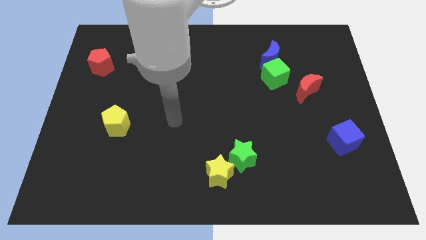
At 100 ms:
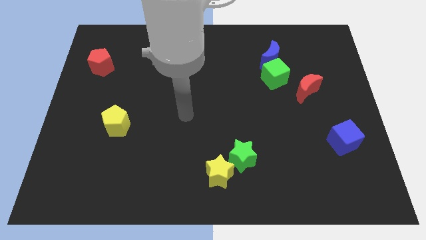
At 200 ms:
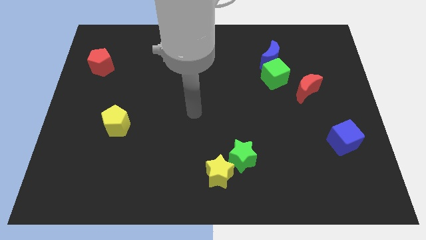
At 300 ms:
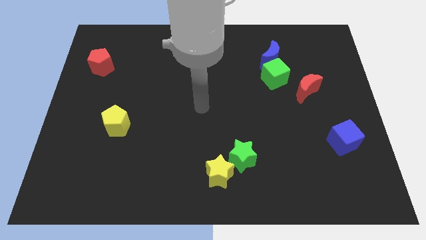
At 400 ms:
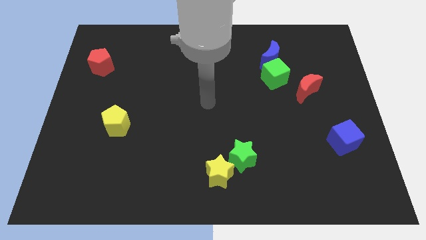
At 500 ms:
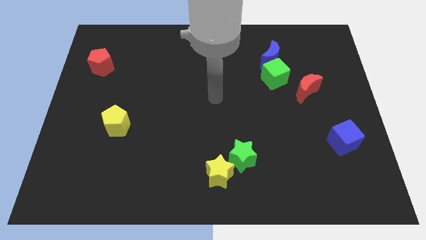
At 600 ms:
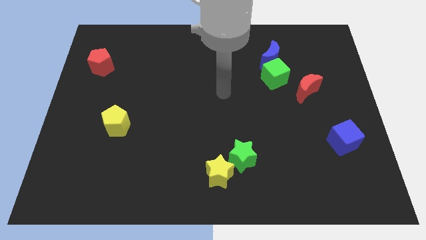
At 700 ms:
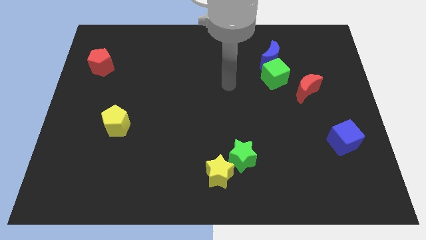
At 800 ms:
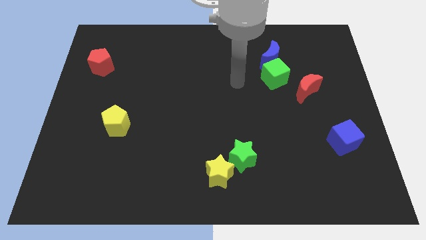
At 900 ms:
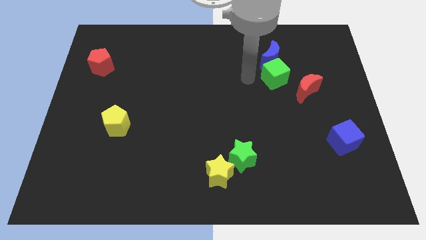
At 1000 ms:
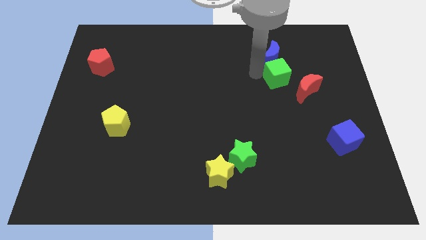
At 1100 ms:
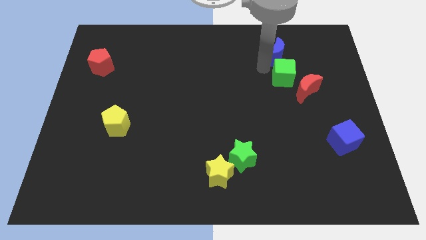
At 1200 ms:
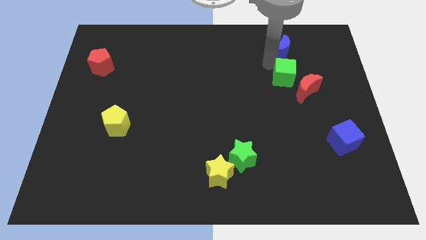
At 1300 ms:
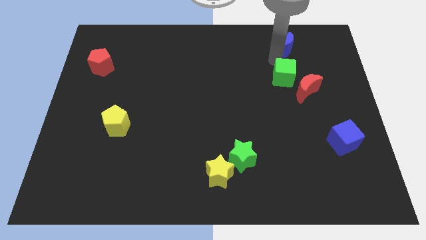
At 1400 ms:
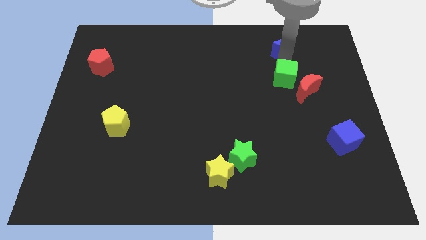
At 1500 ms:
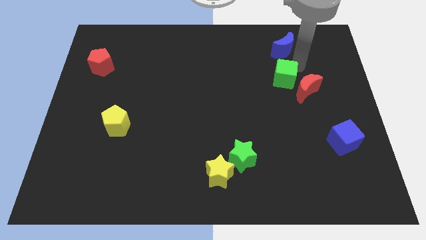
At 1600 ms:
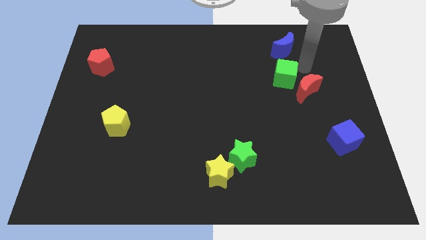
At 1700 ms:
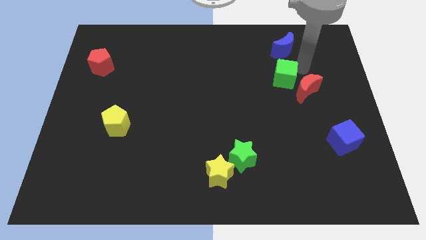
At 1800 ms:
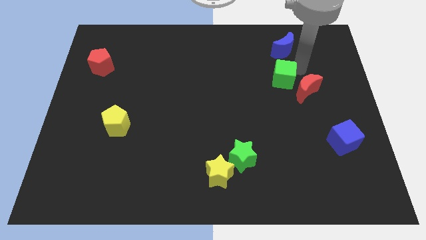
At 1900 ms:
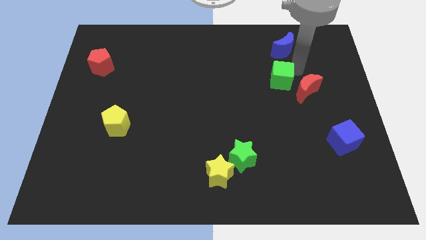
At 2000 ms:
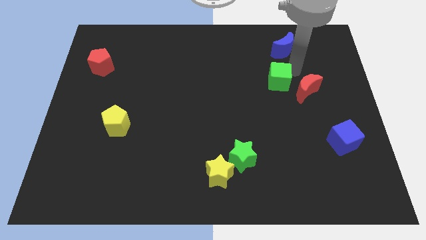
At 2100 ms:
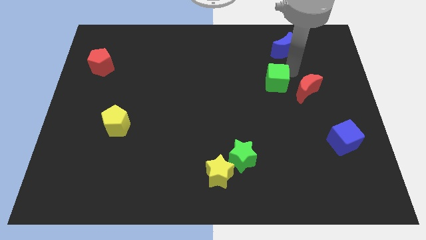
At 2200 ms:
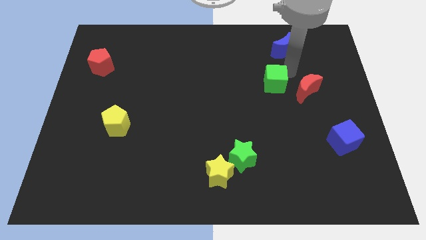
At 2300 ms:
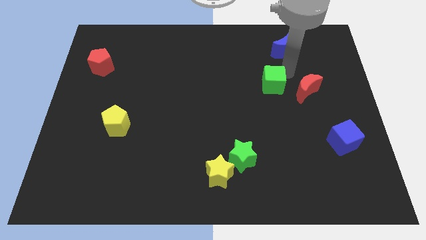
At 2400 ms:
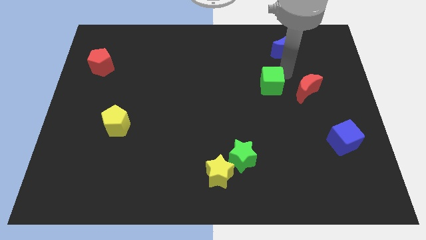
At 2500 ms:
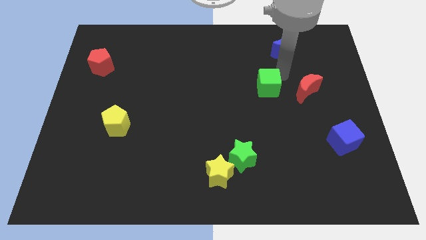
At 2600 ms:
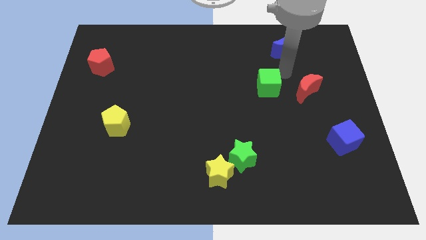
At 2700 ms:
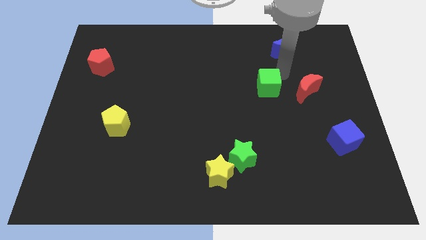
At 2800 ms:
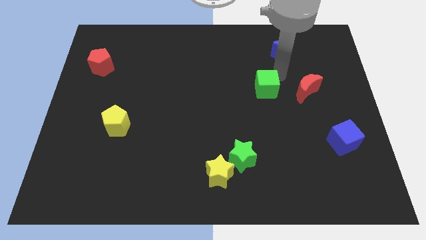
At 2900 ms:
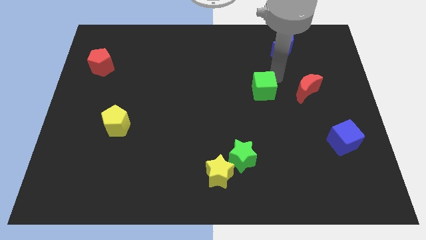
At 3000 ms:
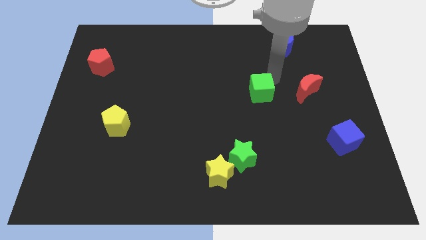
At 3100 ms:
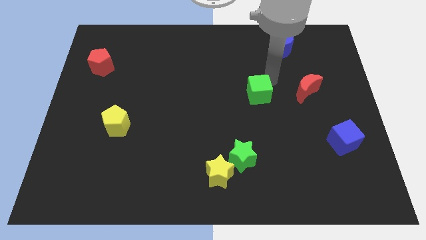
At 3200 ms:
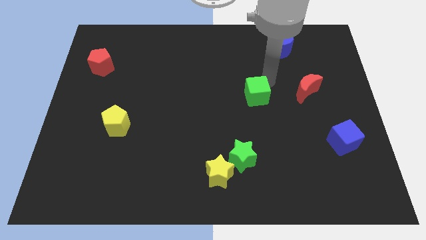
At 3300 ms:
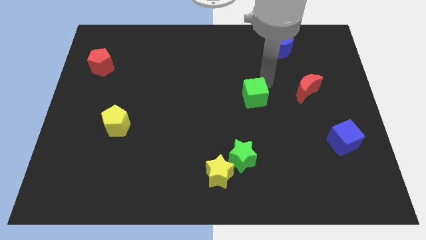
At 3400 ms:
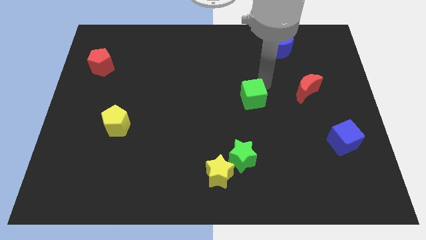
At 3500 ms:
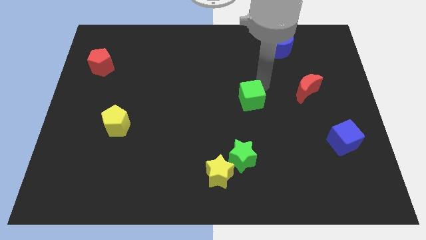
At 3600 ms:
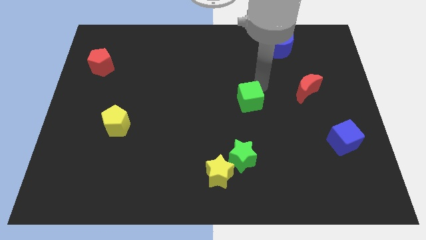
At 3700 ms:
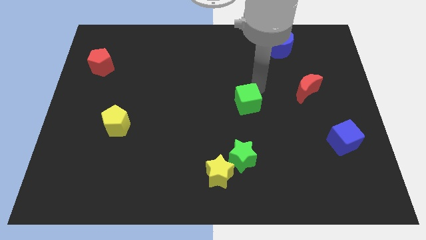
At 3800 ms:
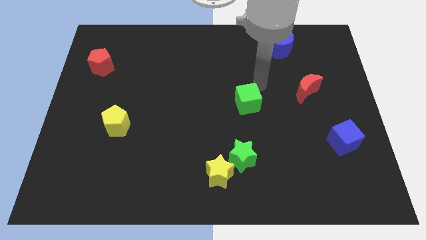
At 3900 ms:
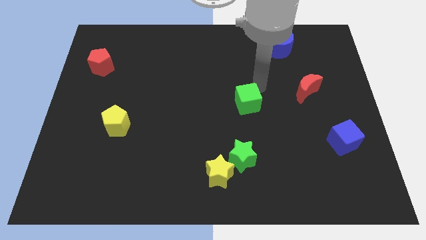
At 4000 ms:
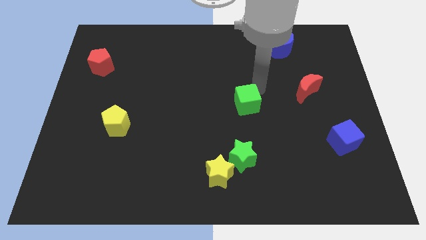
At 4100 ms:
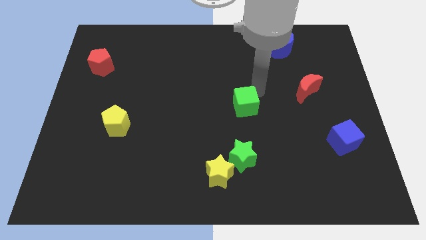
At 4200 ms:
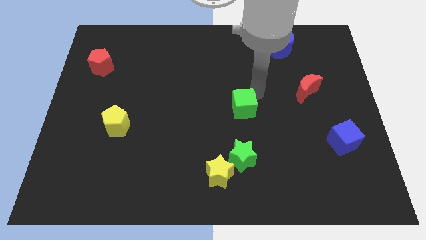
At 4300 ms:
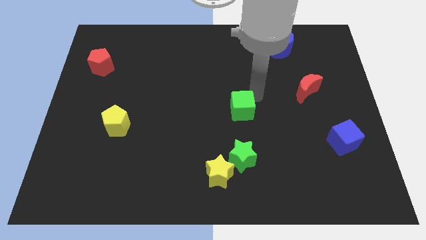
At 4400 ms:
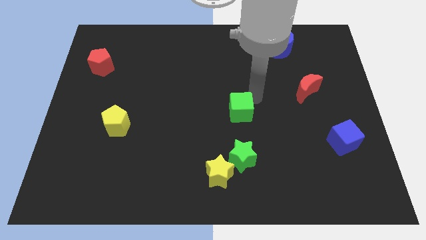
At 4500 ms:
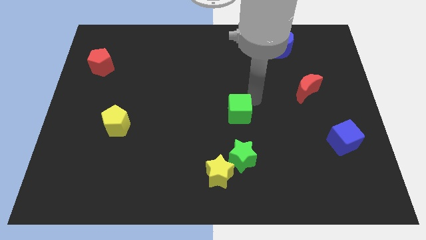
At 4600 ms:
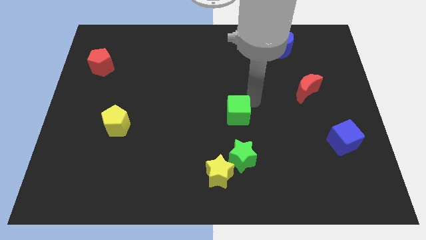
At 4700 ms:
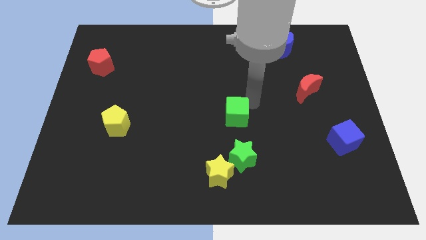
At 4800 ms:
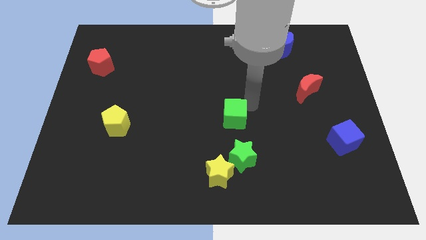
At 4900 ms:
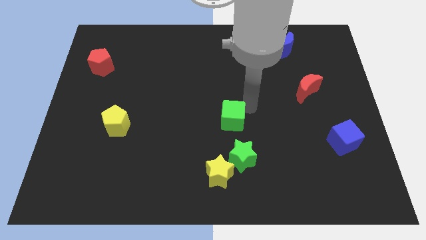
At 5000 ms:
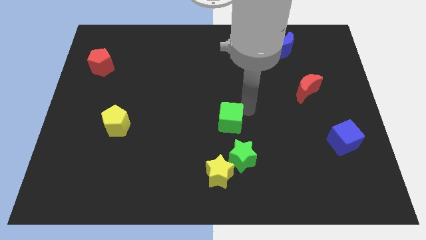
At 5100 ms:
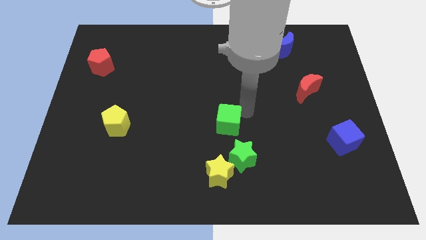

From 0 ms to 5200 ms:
move the green cube to the top left side of the green star

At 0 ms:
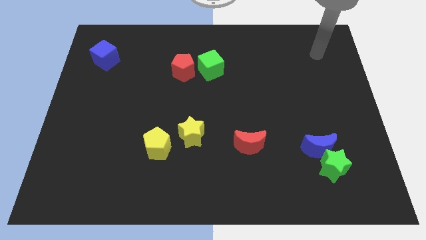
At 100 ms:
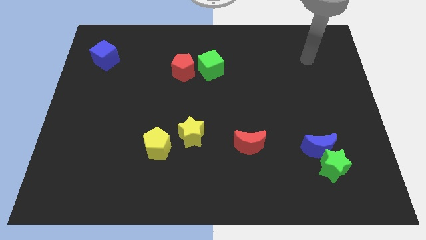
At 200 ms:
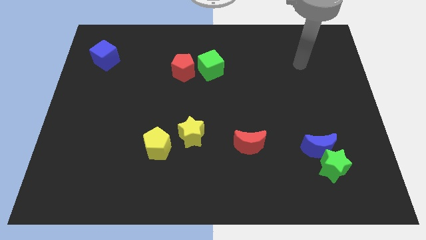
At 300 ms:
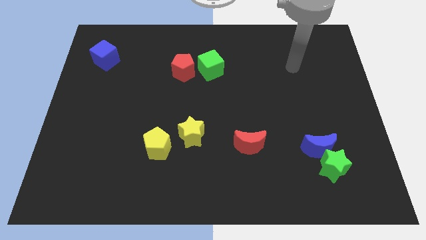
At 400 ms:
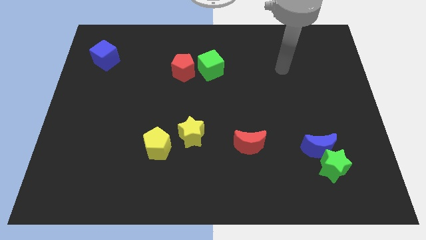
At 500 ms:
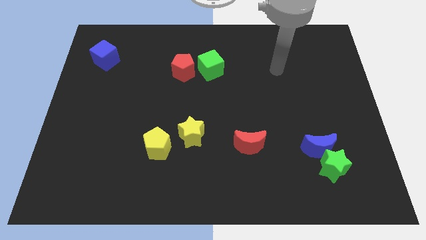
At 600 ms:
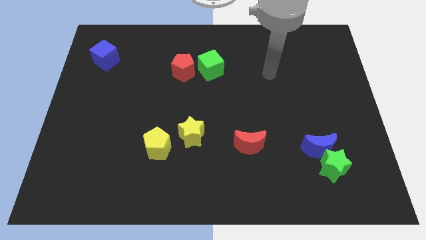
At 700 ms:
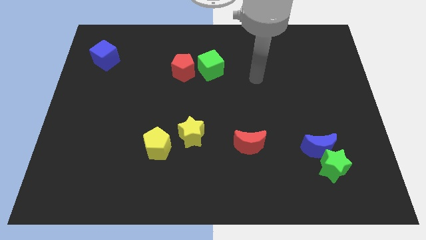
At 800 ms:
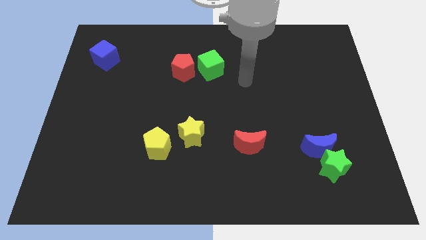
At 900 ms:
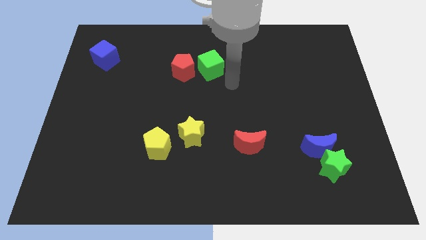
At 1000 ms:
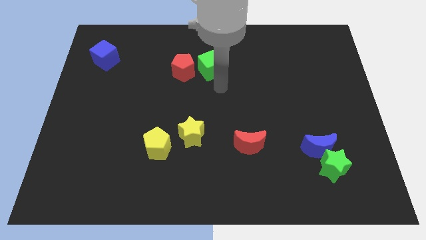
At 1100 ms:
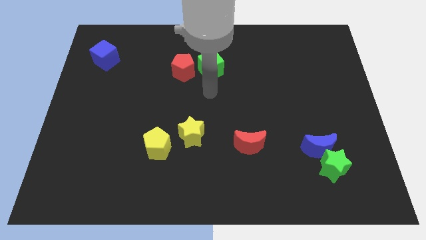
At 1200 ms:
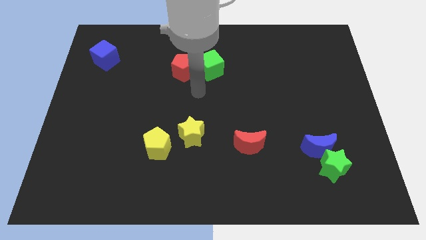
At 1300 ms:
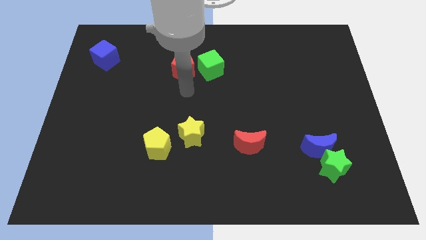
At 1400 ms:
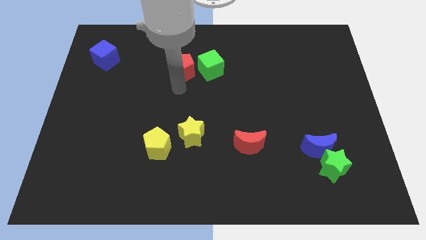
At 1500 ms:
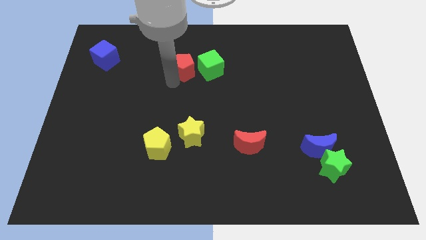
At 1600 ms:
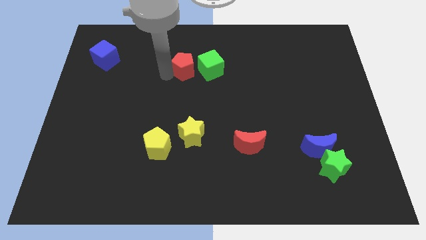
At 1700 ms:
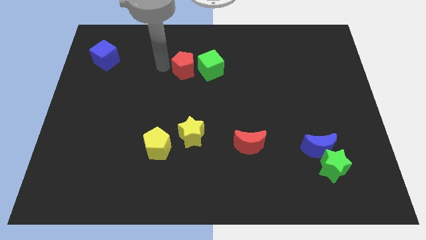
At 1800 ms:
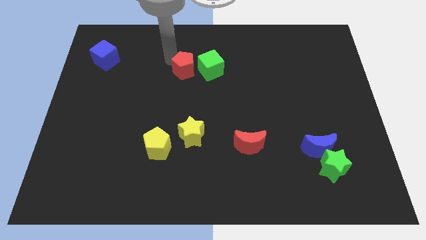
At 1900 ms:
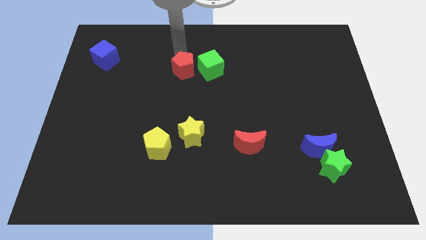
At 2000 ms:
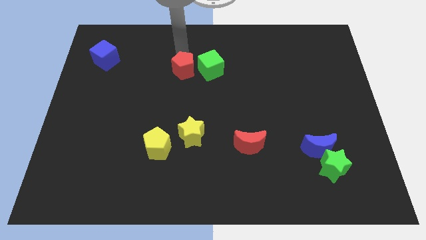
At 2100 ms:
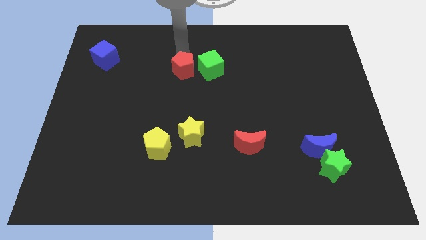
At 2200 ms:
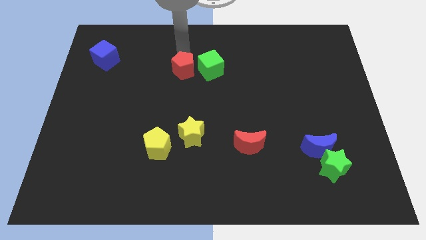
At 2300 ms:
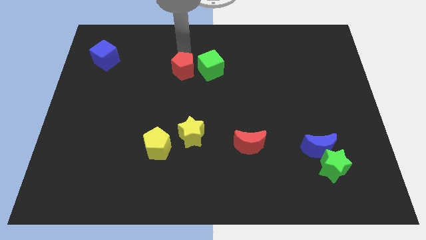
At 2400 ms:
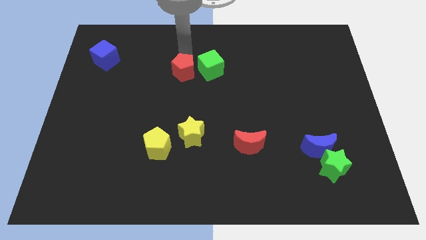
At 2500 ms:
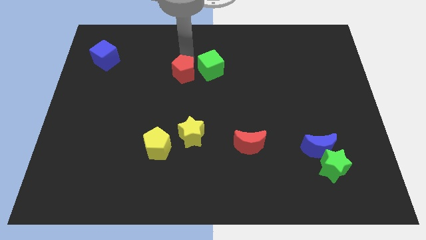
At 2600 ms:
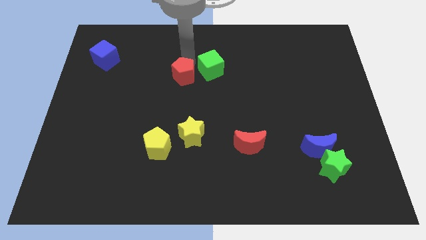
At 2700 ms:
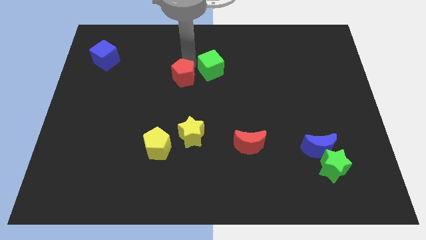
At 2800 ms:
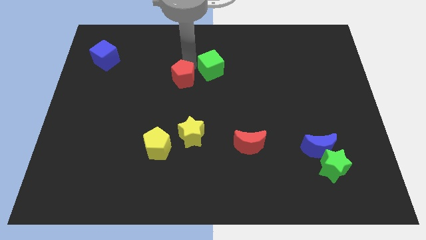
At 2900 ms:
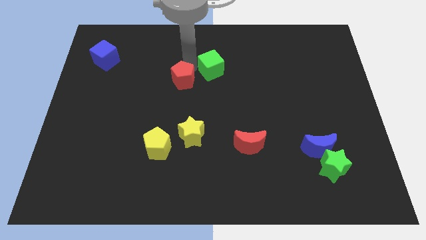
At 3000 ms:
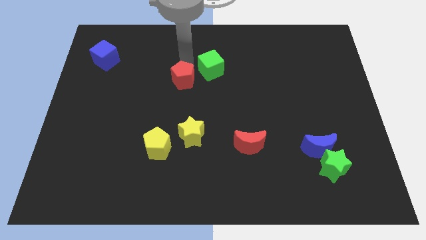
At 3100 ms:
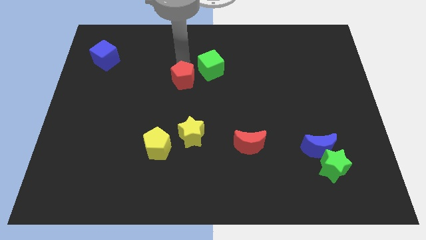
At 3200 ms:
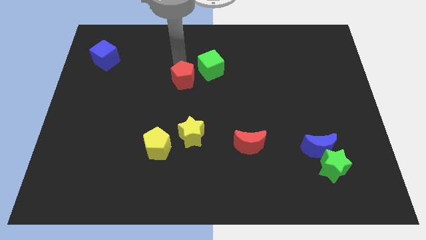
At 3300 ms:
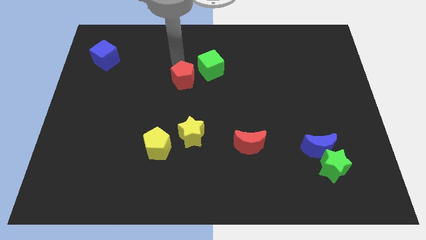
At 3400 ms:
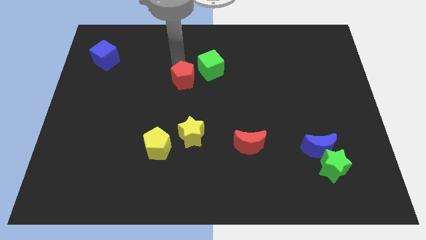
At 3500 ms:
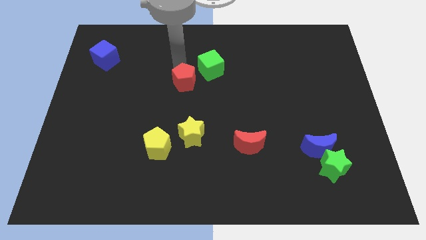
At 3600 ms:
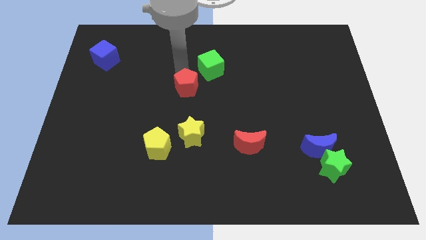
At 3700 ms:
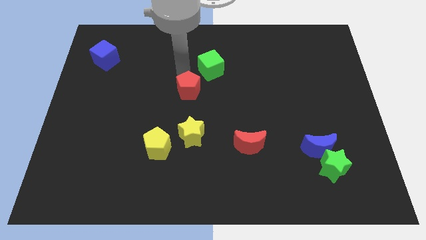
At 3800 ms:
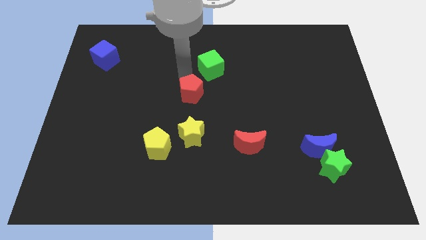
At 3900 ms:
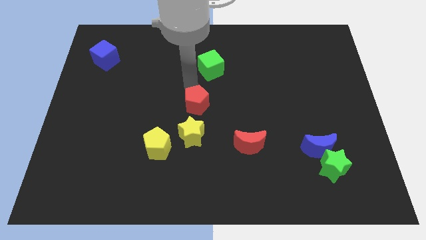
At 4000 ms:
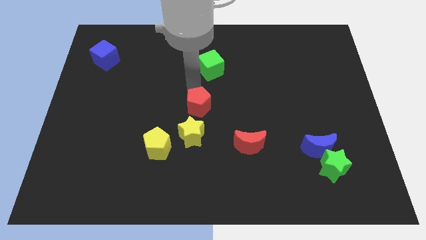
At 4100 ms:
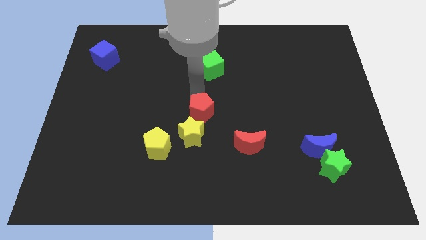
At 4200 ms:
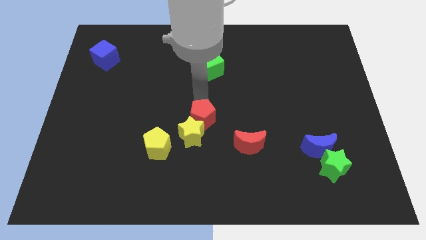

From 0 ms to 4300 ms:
push the red pentagon diagonally up and to the right of the yellow pentagon
